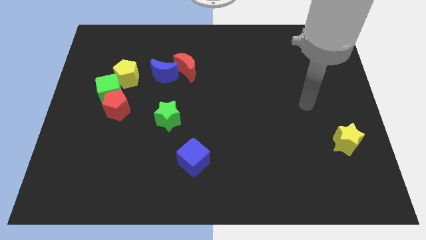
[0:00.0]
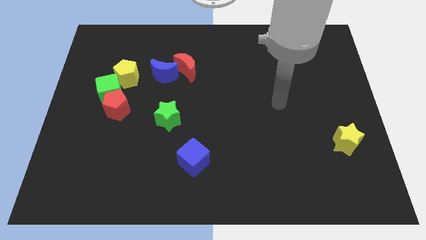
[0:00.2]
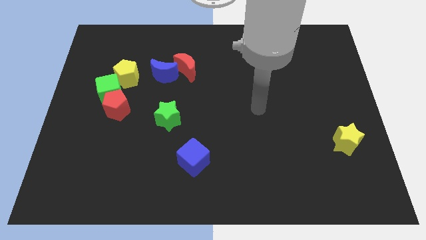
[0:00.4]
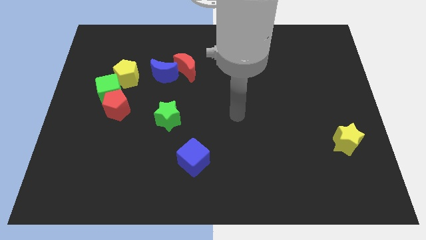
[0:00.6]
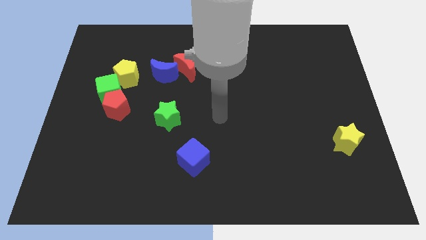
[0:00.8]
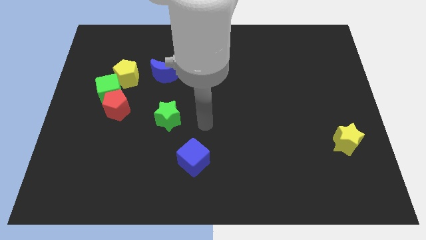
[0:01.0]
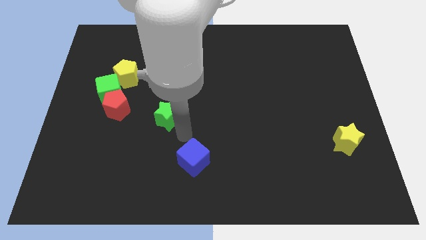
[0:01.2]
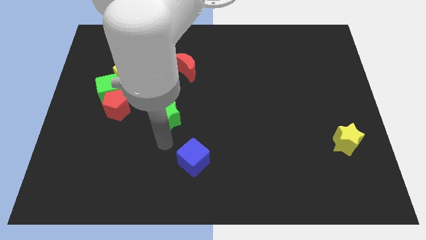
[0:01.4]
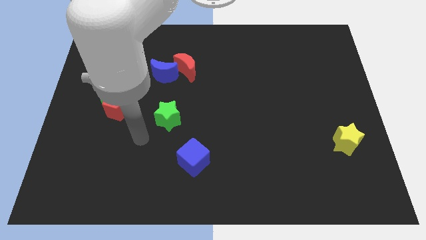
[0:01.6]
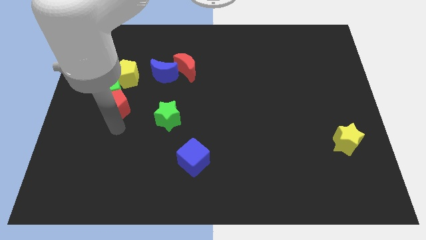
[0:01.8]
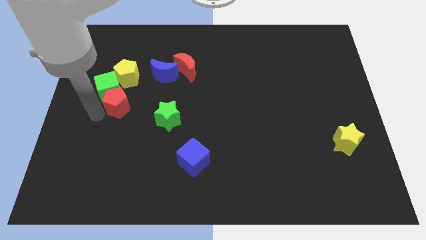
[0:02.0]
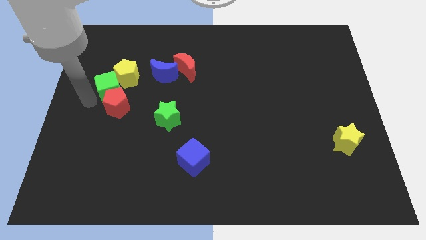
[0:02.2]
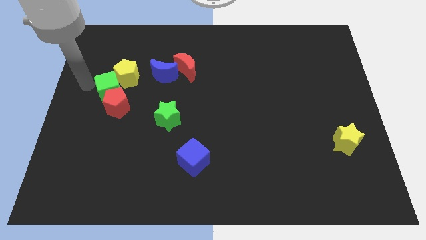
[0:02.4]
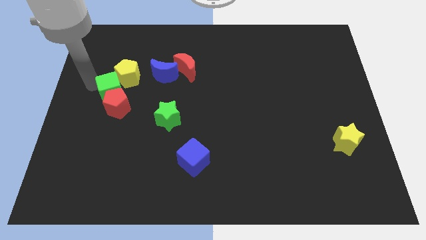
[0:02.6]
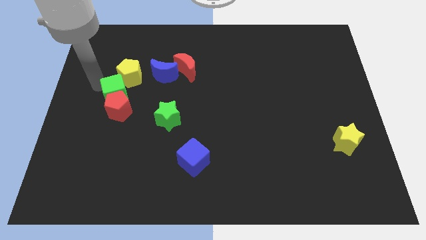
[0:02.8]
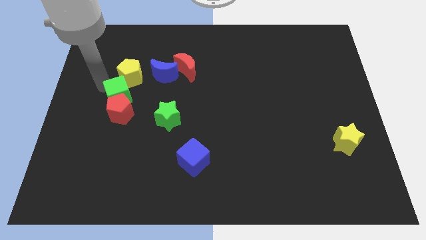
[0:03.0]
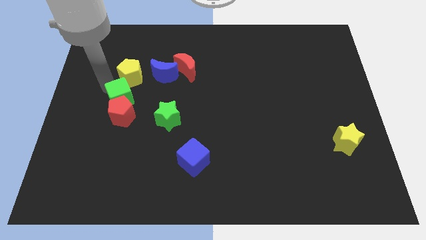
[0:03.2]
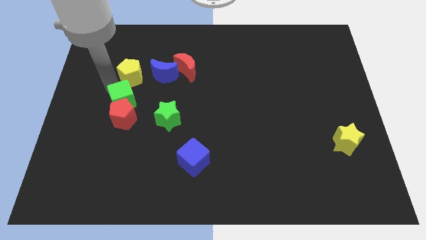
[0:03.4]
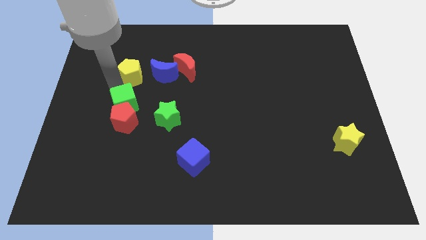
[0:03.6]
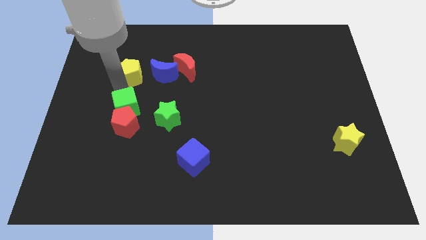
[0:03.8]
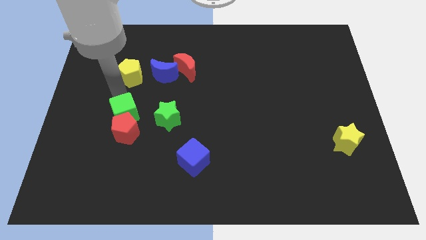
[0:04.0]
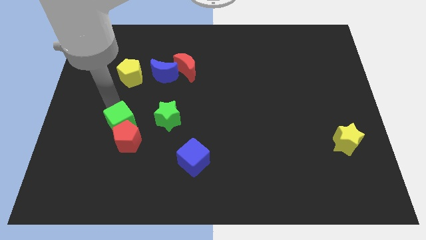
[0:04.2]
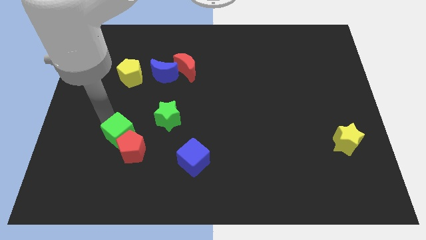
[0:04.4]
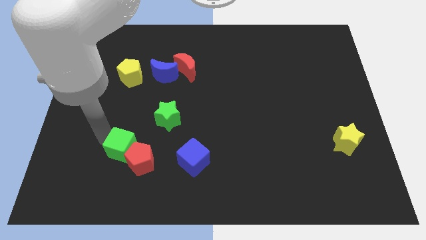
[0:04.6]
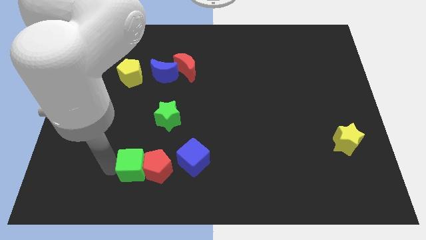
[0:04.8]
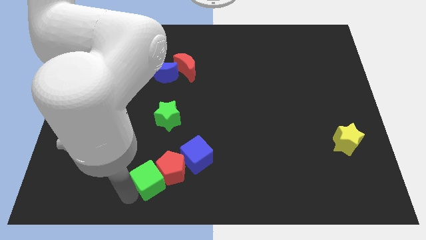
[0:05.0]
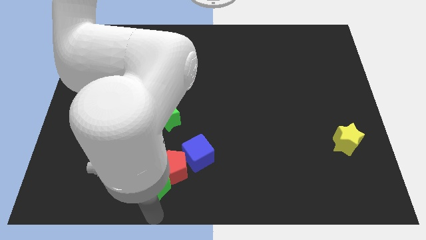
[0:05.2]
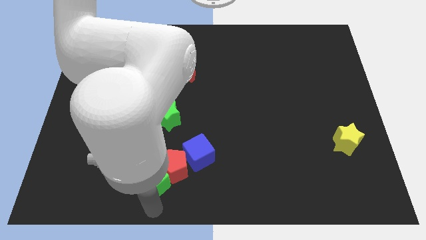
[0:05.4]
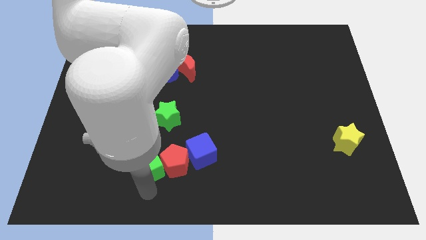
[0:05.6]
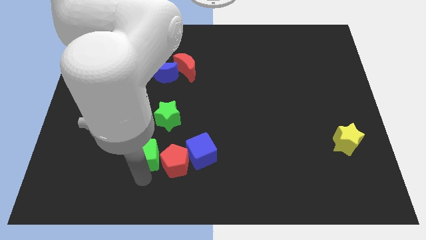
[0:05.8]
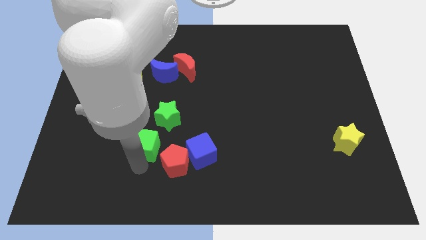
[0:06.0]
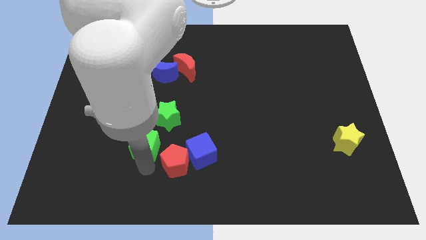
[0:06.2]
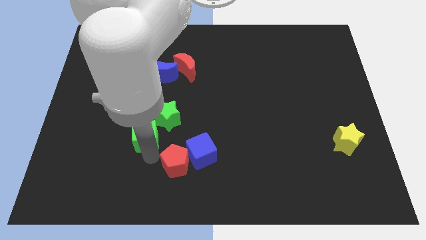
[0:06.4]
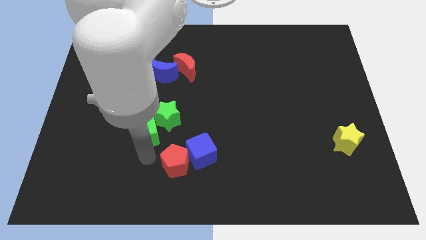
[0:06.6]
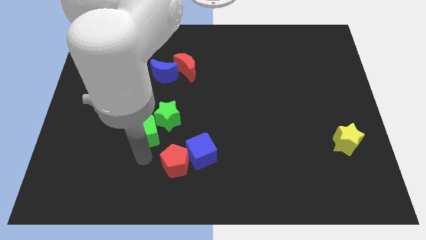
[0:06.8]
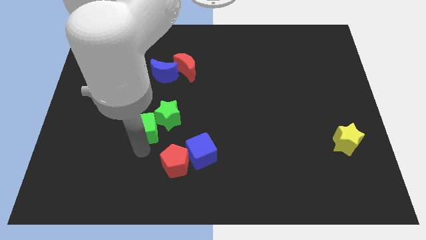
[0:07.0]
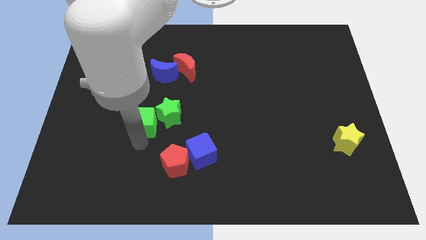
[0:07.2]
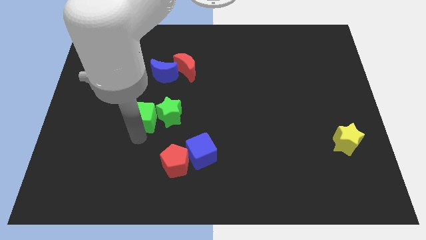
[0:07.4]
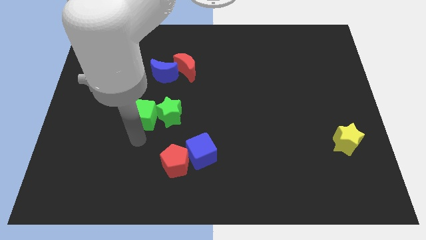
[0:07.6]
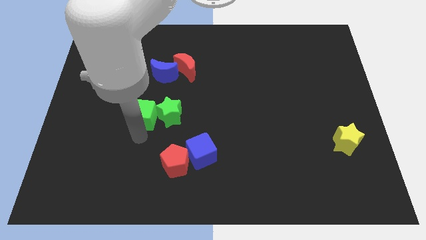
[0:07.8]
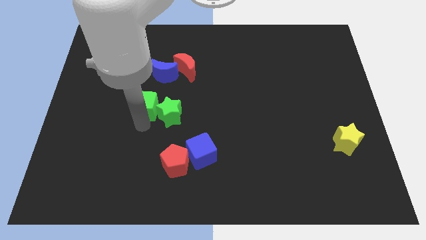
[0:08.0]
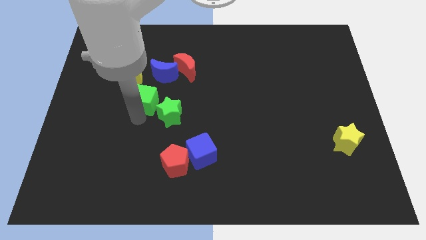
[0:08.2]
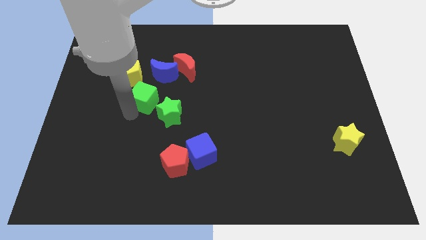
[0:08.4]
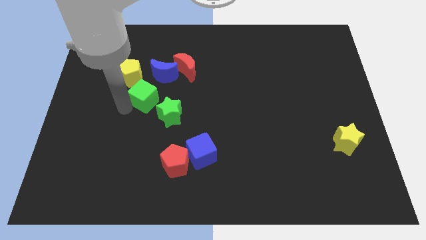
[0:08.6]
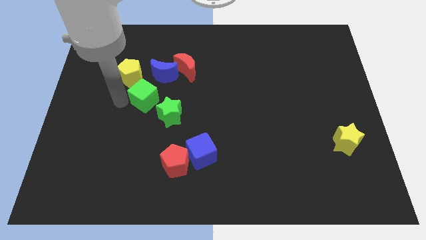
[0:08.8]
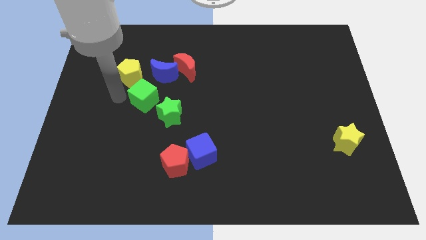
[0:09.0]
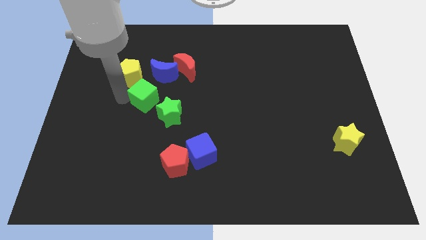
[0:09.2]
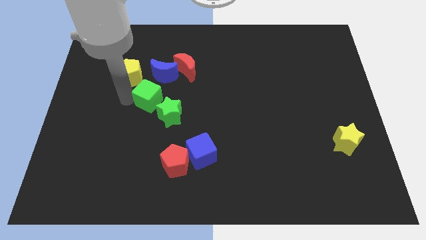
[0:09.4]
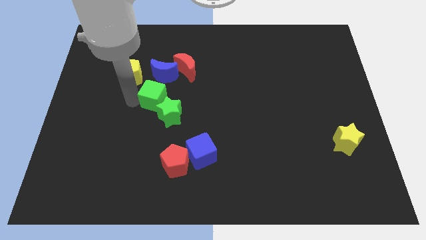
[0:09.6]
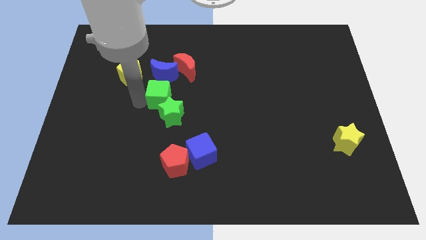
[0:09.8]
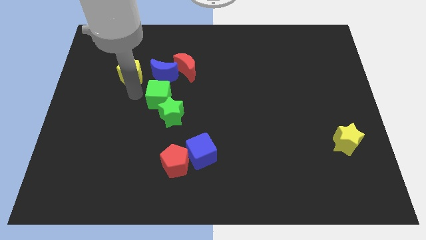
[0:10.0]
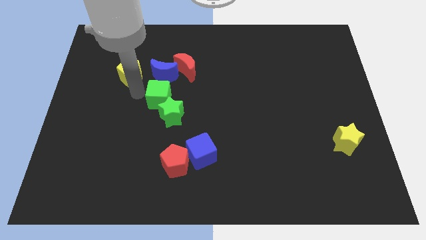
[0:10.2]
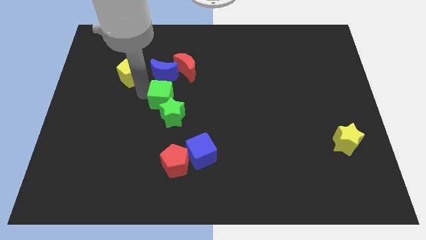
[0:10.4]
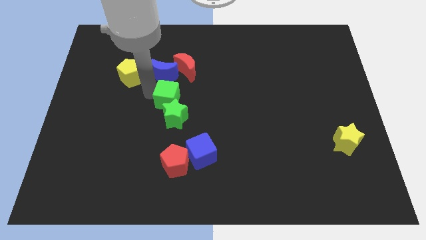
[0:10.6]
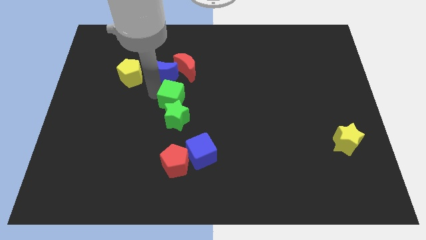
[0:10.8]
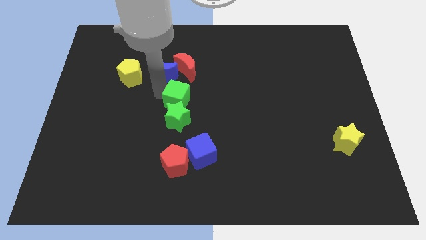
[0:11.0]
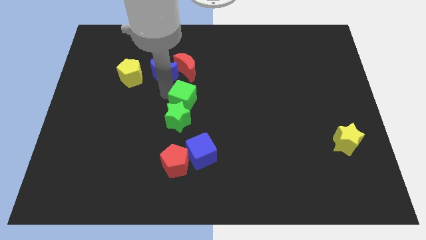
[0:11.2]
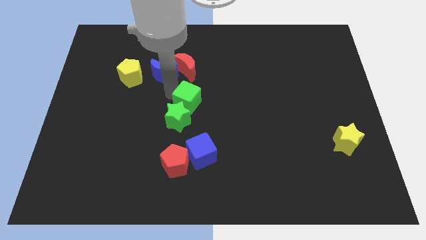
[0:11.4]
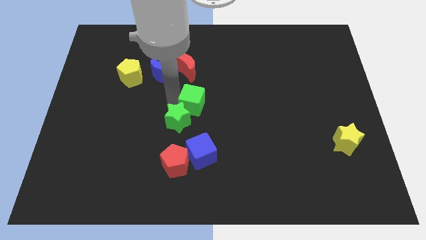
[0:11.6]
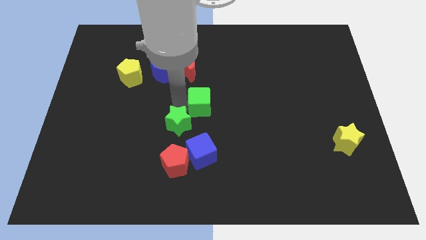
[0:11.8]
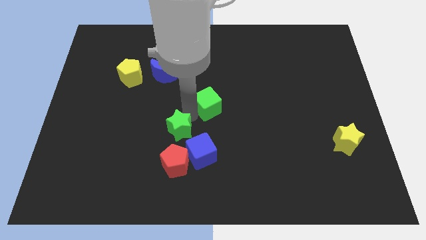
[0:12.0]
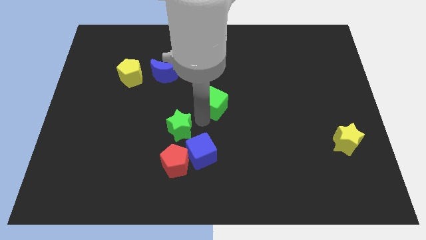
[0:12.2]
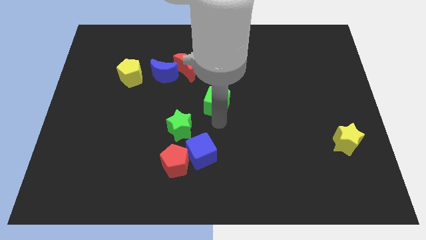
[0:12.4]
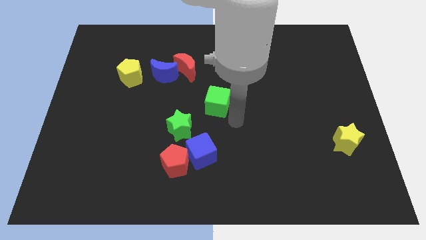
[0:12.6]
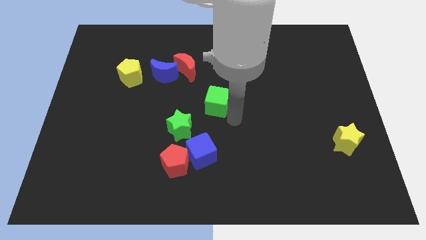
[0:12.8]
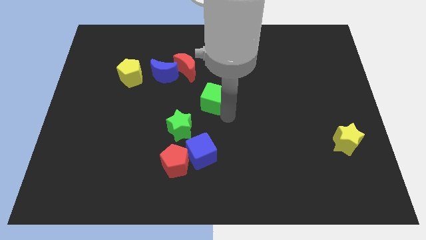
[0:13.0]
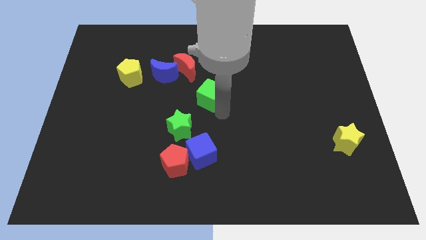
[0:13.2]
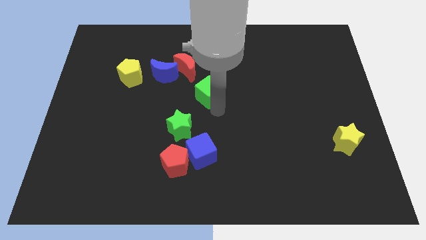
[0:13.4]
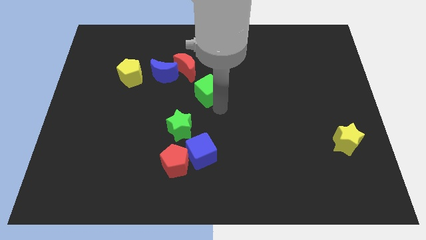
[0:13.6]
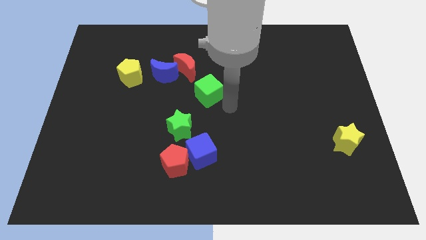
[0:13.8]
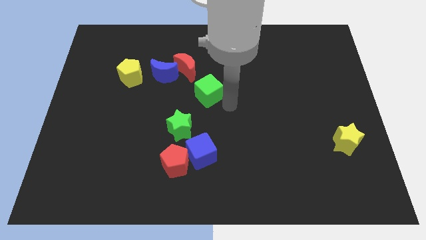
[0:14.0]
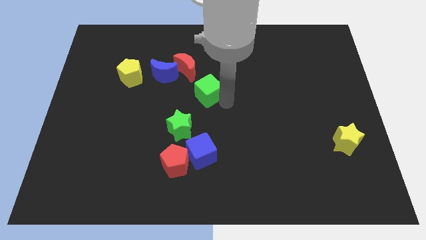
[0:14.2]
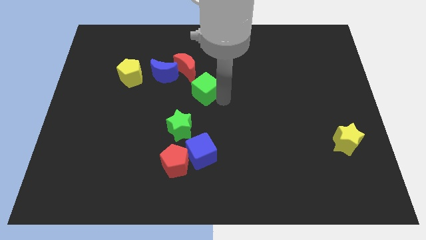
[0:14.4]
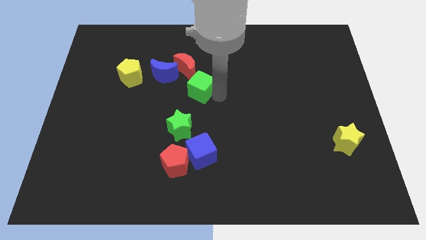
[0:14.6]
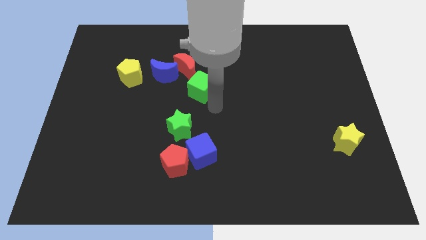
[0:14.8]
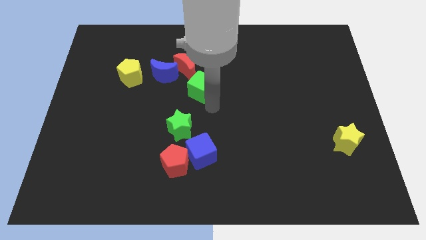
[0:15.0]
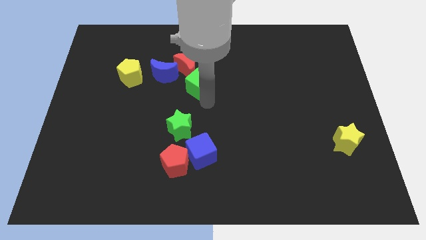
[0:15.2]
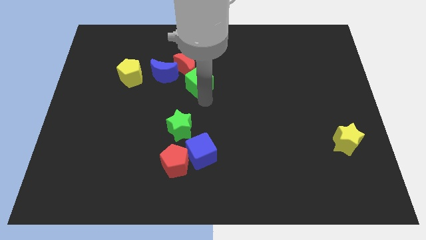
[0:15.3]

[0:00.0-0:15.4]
push the green cube close to the red moon
